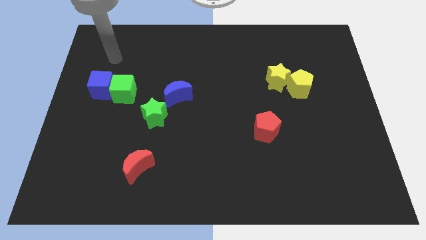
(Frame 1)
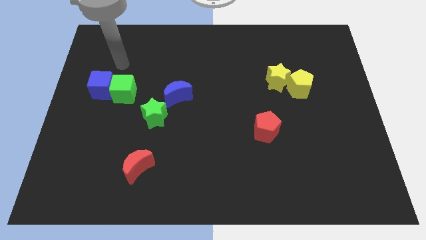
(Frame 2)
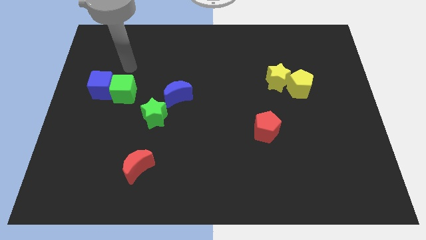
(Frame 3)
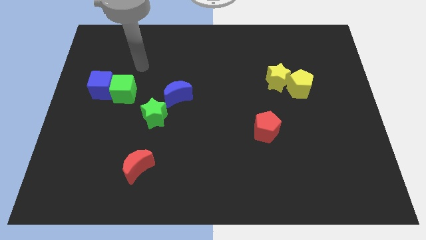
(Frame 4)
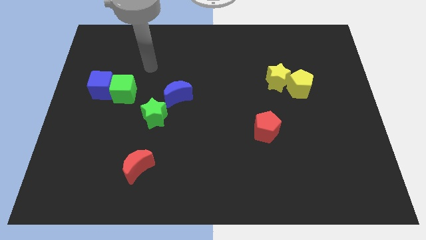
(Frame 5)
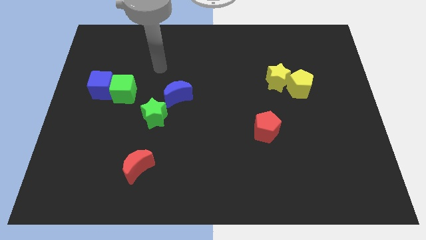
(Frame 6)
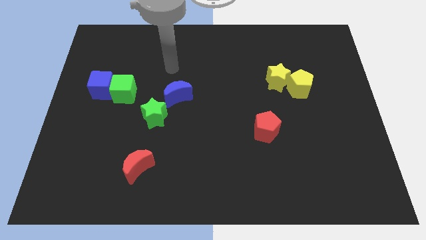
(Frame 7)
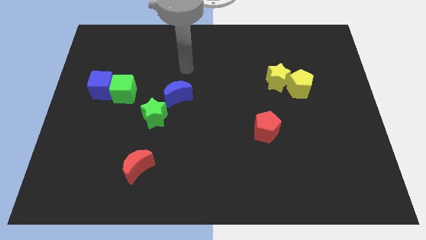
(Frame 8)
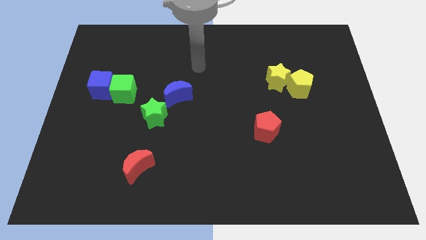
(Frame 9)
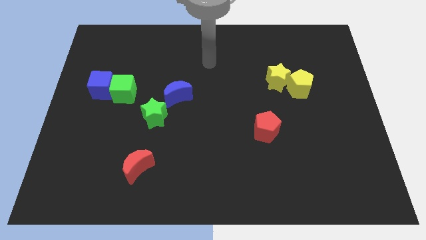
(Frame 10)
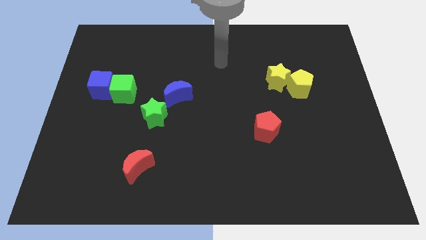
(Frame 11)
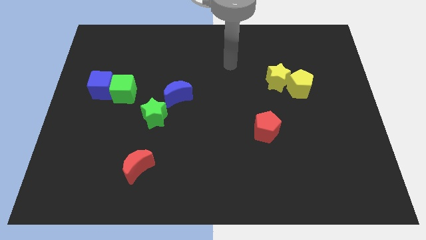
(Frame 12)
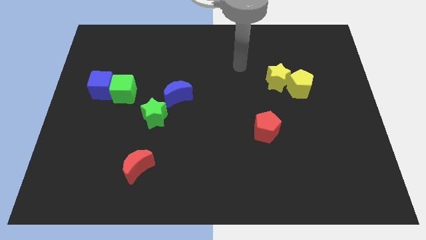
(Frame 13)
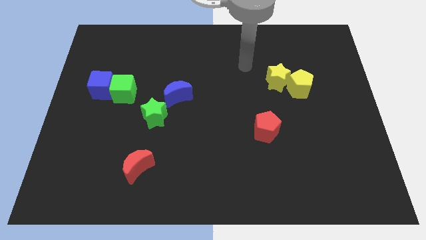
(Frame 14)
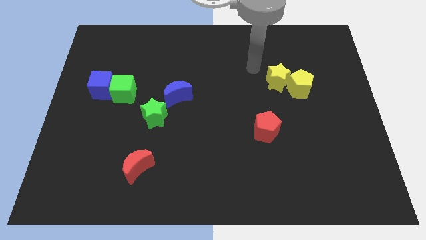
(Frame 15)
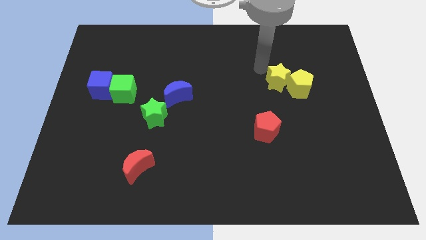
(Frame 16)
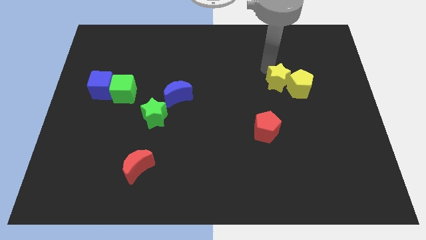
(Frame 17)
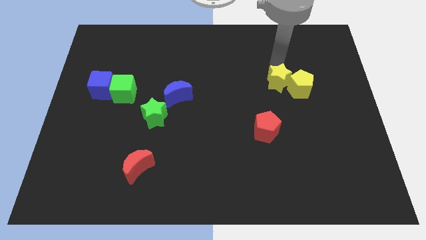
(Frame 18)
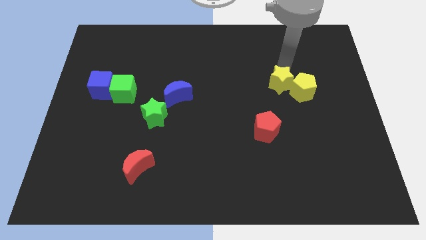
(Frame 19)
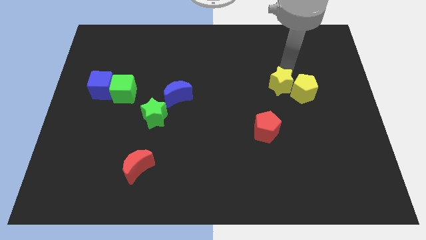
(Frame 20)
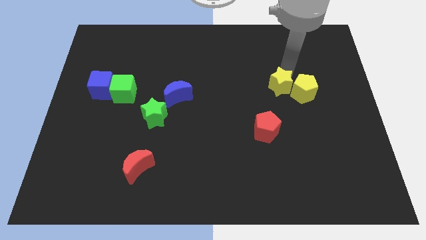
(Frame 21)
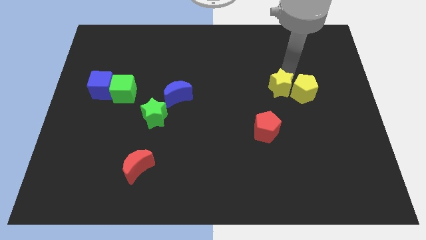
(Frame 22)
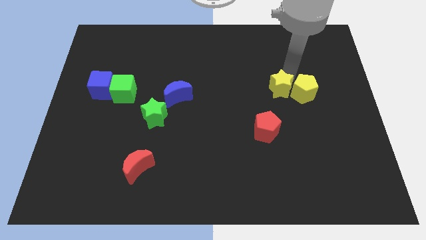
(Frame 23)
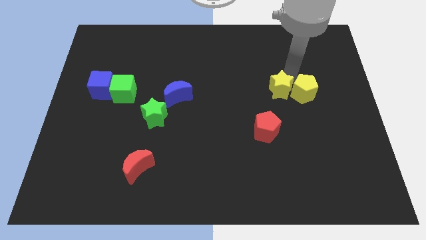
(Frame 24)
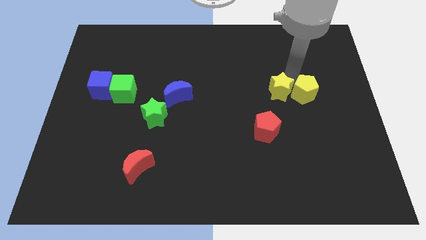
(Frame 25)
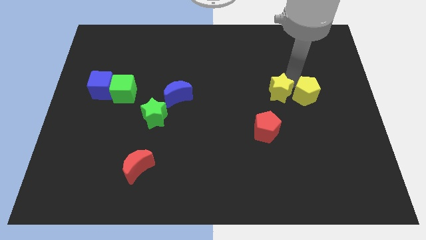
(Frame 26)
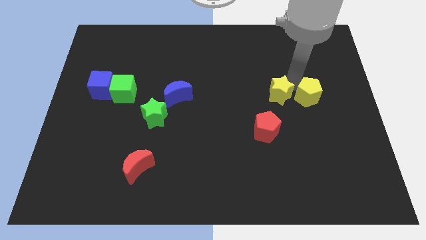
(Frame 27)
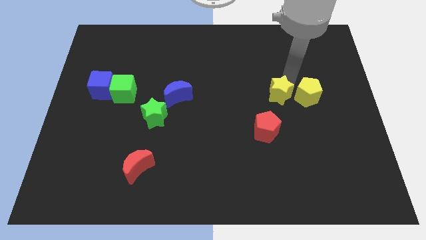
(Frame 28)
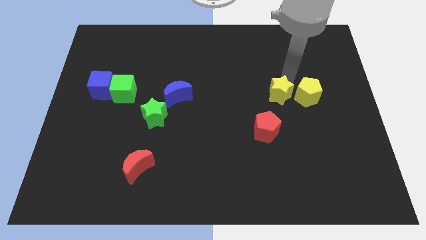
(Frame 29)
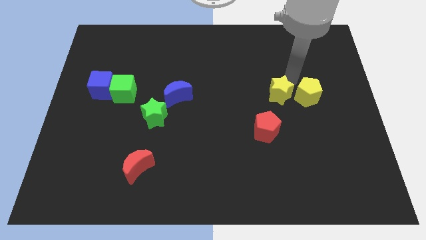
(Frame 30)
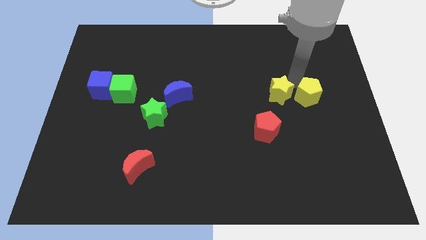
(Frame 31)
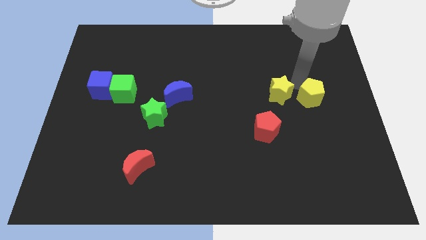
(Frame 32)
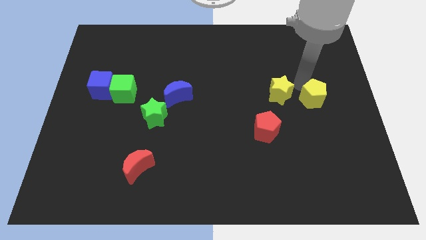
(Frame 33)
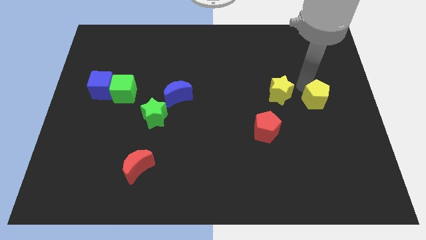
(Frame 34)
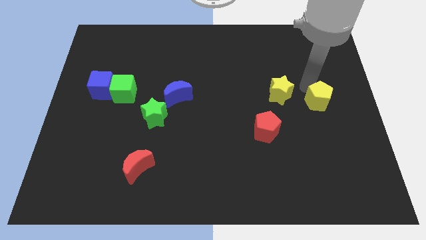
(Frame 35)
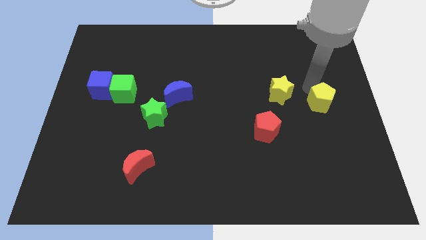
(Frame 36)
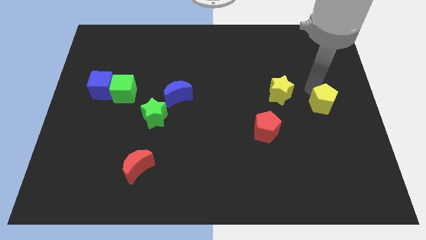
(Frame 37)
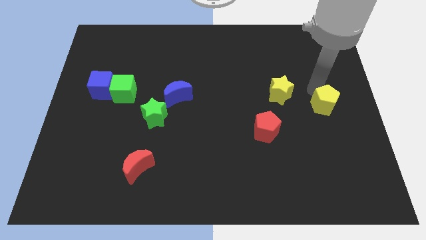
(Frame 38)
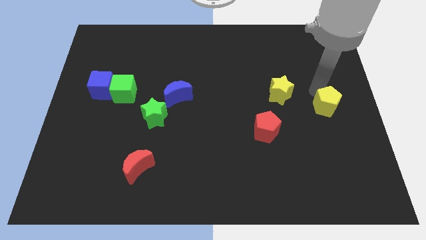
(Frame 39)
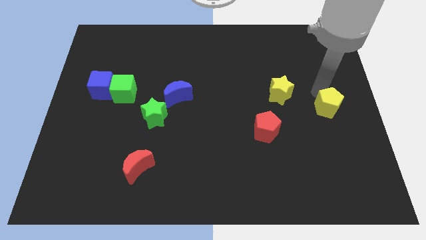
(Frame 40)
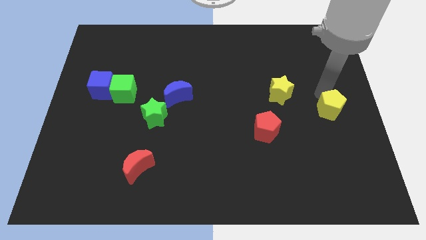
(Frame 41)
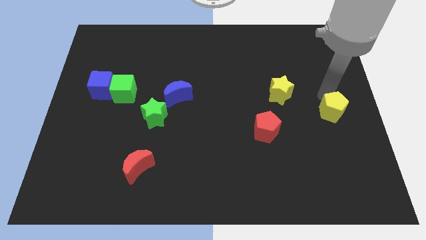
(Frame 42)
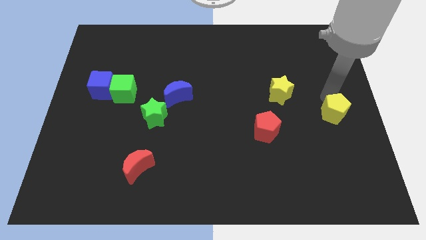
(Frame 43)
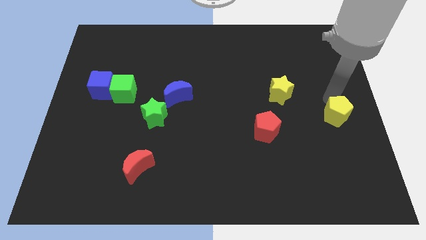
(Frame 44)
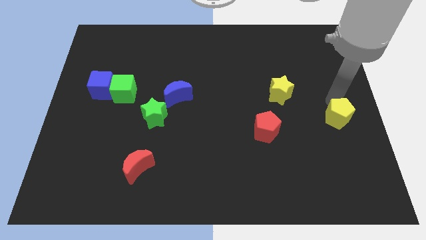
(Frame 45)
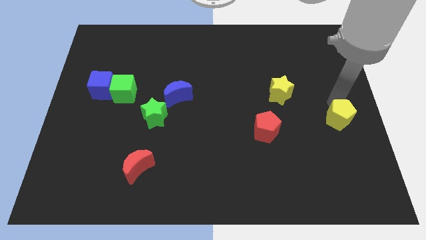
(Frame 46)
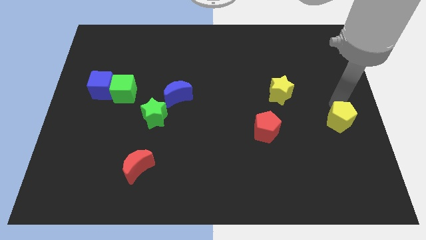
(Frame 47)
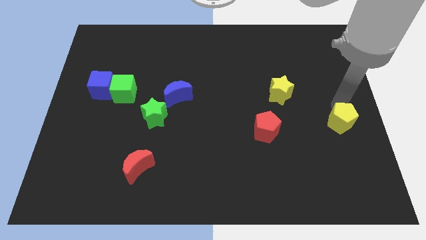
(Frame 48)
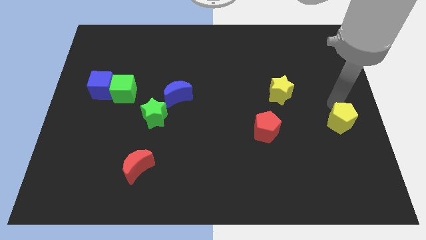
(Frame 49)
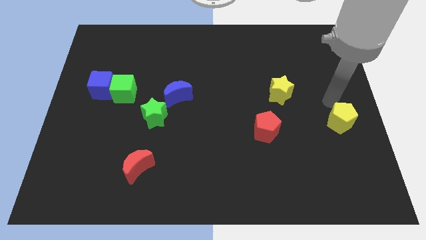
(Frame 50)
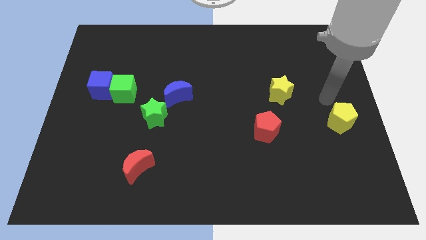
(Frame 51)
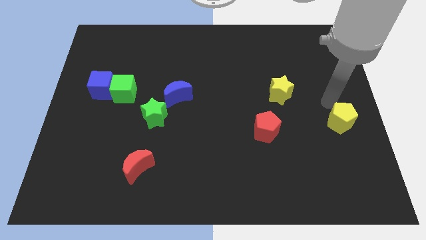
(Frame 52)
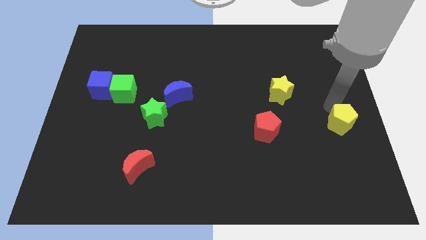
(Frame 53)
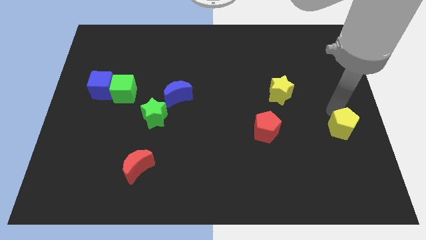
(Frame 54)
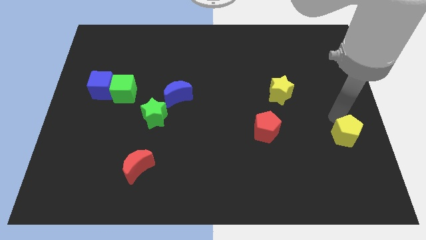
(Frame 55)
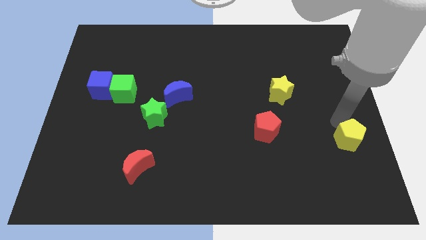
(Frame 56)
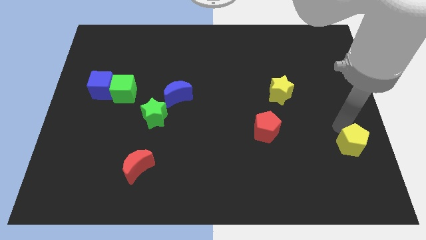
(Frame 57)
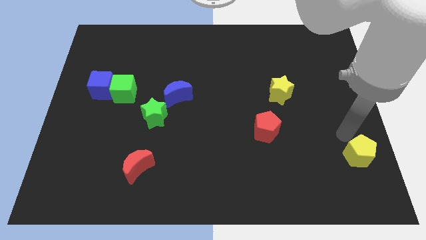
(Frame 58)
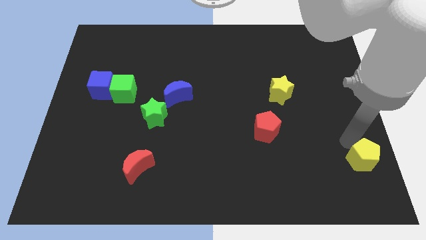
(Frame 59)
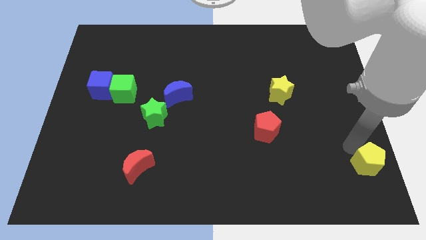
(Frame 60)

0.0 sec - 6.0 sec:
slide the yellow pentagon to the bottom right

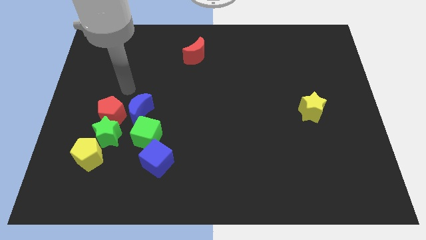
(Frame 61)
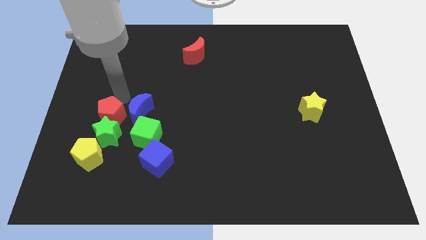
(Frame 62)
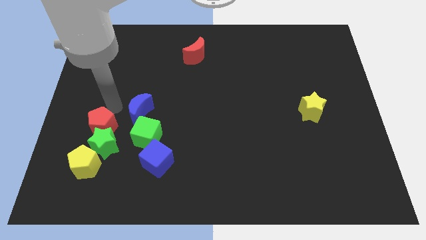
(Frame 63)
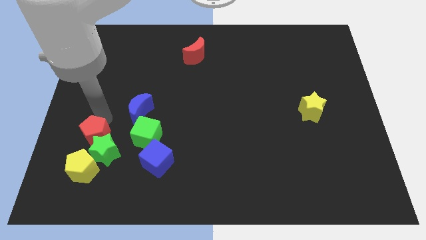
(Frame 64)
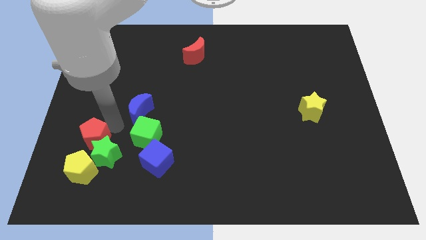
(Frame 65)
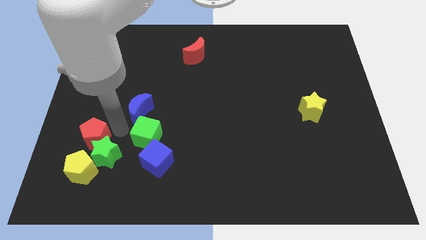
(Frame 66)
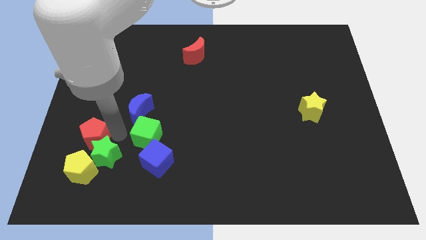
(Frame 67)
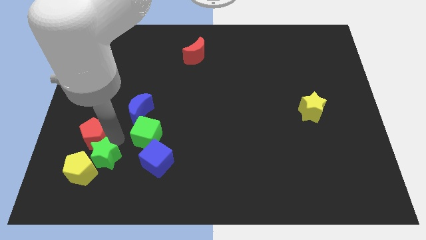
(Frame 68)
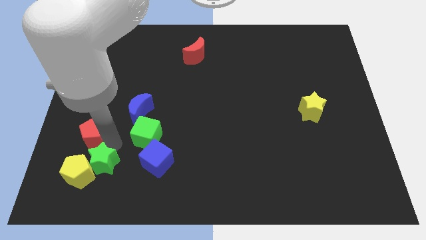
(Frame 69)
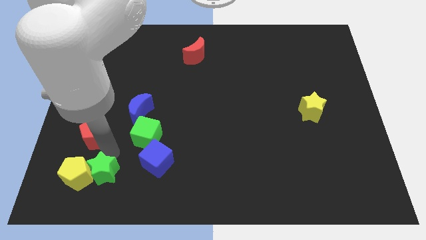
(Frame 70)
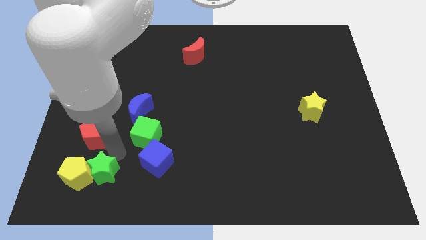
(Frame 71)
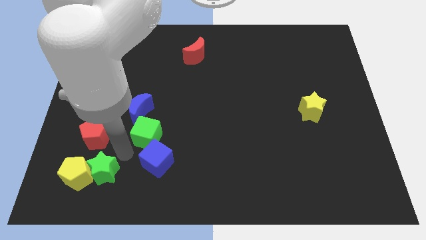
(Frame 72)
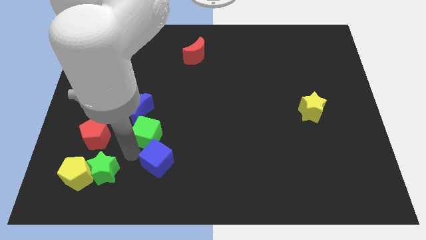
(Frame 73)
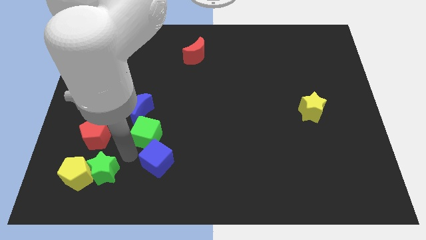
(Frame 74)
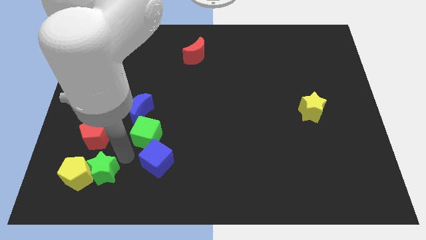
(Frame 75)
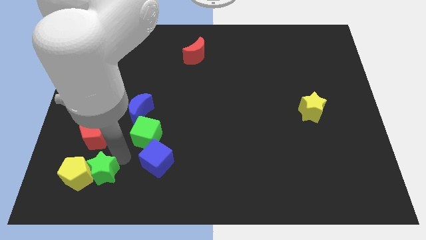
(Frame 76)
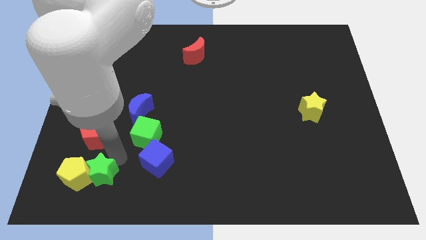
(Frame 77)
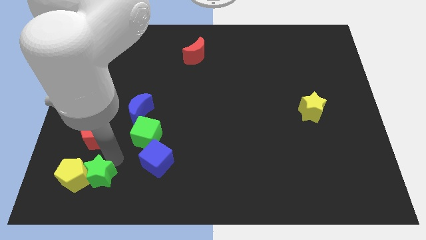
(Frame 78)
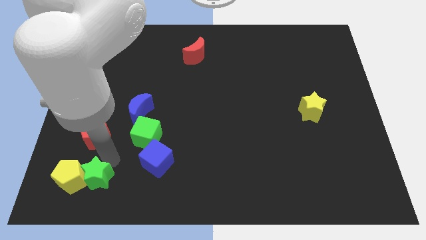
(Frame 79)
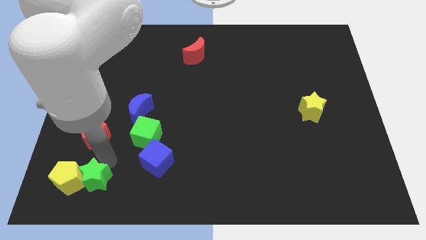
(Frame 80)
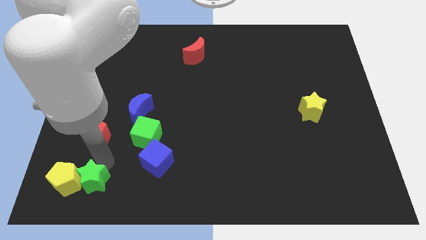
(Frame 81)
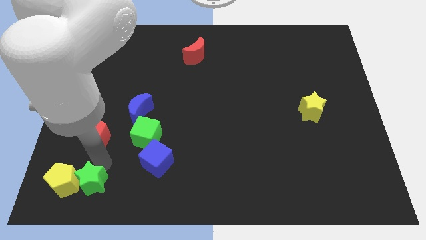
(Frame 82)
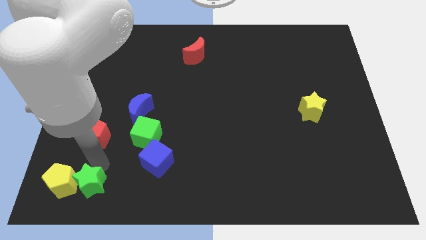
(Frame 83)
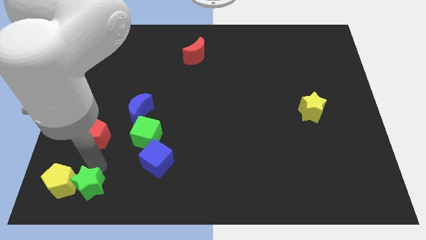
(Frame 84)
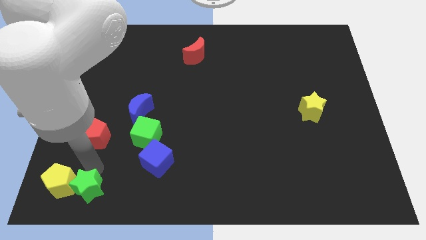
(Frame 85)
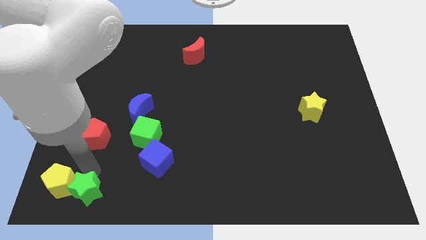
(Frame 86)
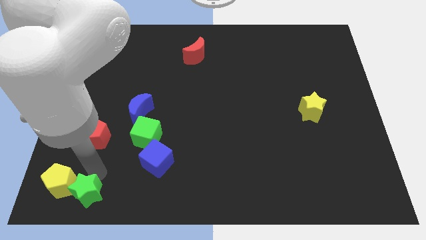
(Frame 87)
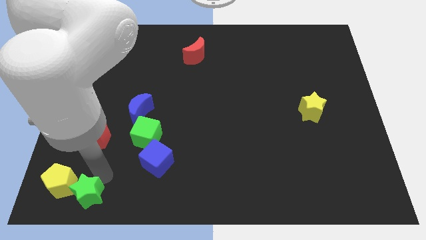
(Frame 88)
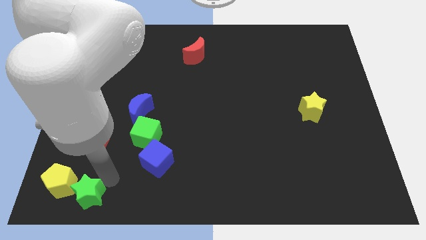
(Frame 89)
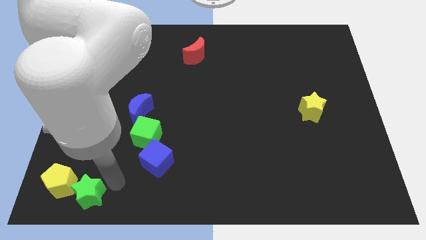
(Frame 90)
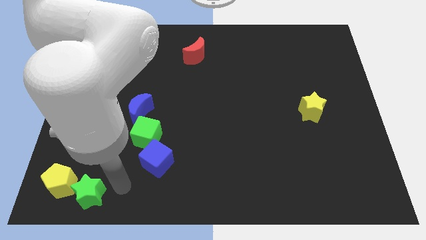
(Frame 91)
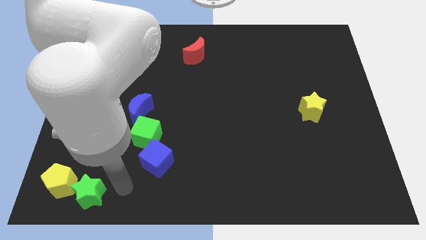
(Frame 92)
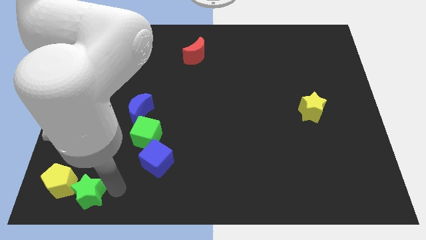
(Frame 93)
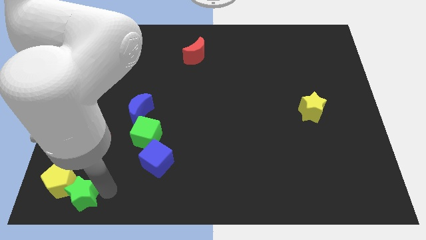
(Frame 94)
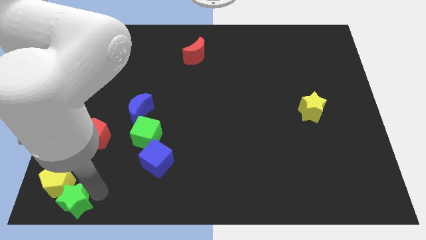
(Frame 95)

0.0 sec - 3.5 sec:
slide the green star to the bottom left of the board
